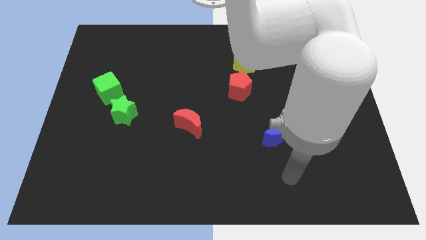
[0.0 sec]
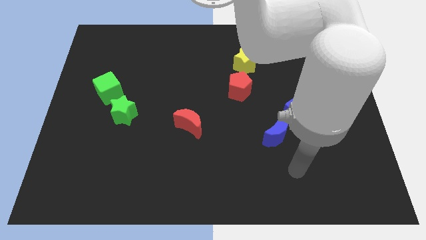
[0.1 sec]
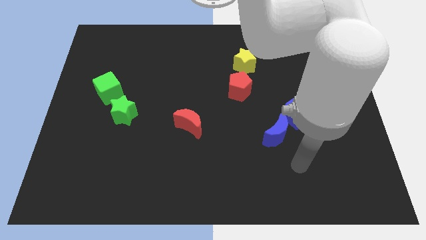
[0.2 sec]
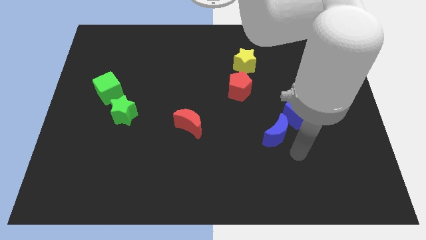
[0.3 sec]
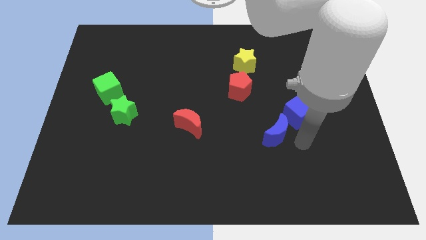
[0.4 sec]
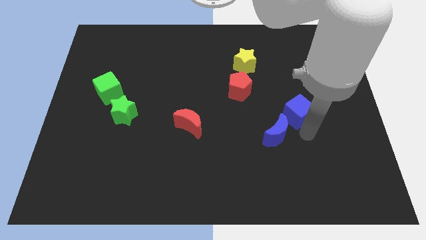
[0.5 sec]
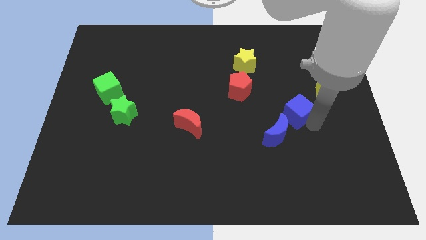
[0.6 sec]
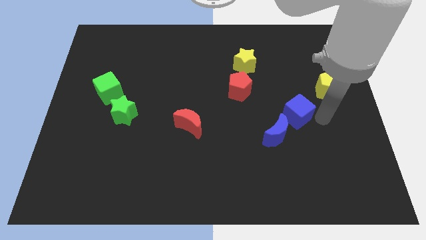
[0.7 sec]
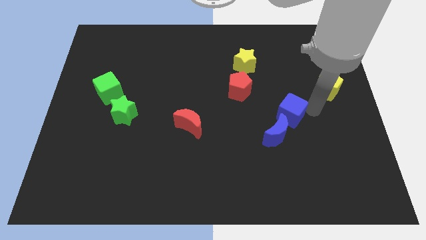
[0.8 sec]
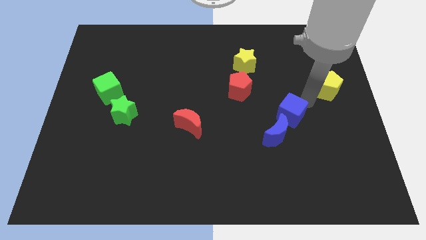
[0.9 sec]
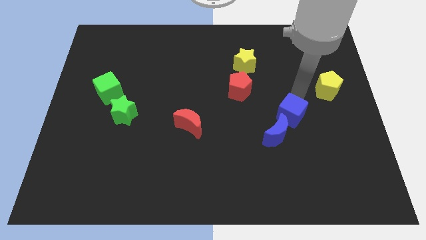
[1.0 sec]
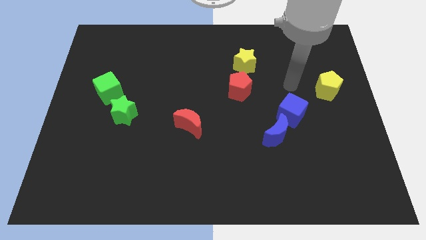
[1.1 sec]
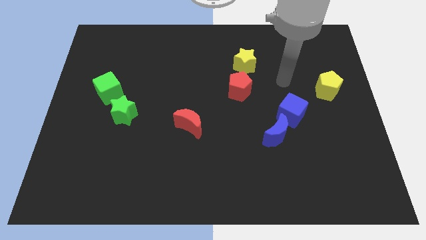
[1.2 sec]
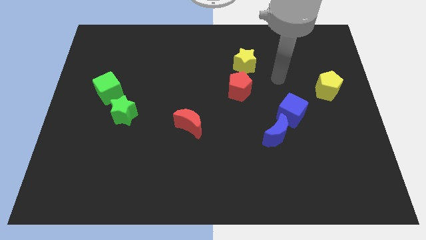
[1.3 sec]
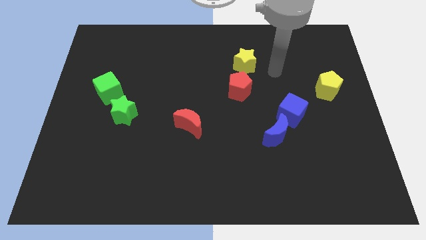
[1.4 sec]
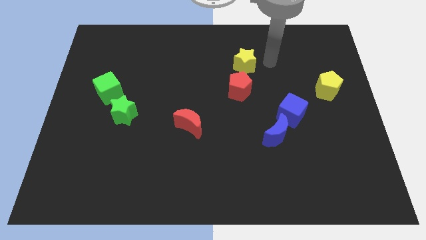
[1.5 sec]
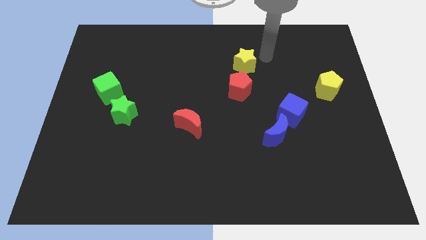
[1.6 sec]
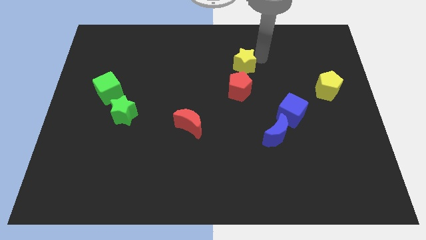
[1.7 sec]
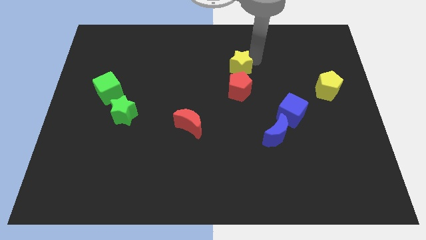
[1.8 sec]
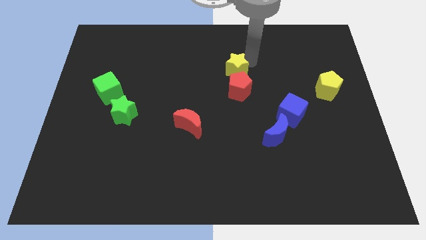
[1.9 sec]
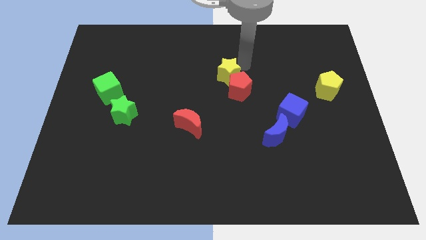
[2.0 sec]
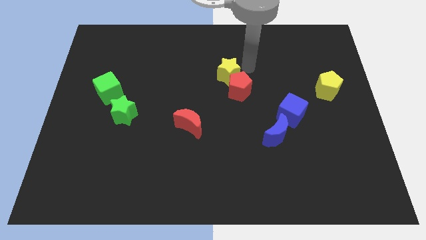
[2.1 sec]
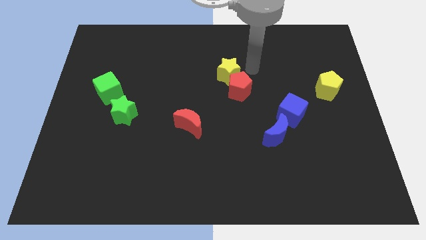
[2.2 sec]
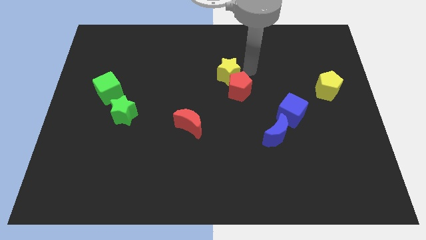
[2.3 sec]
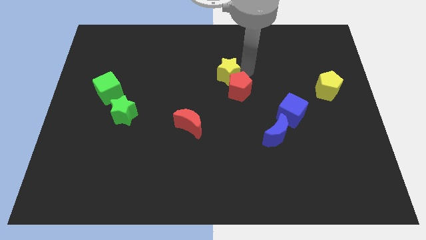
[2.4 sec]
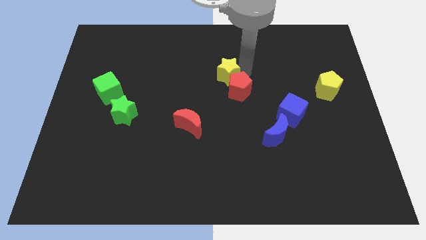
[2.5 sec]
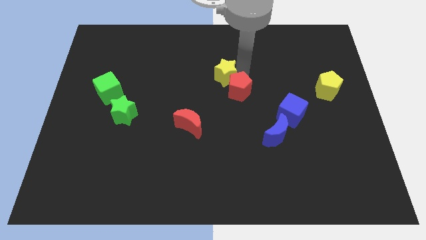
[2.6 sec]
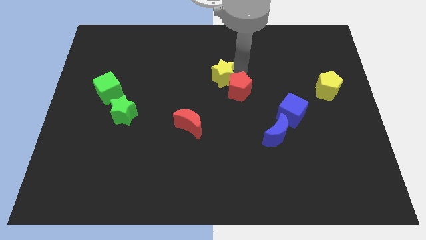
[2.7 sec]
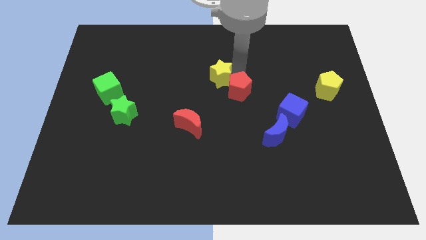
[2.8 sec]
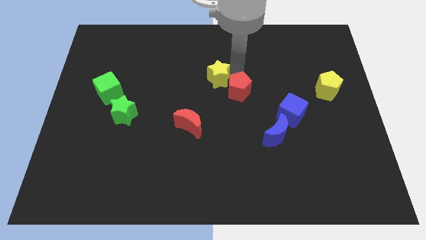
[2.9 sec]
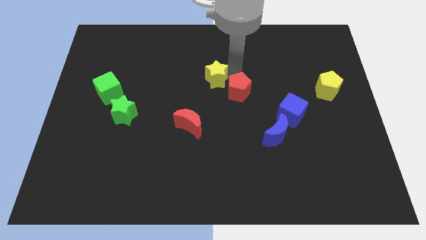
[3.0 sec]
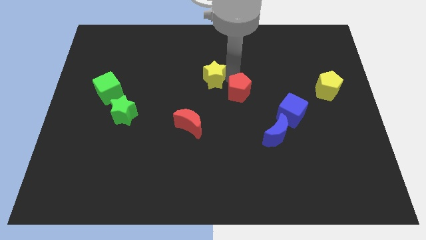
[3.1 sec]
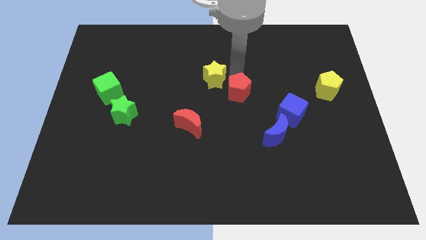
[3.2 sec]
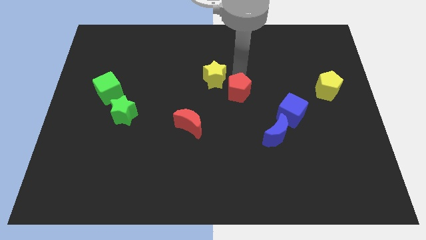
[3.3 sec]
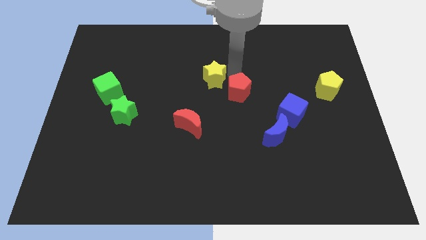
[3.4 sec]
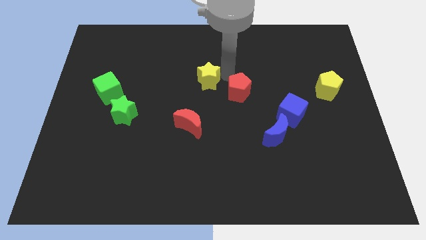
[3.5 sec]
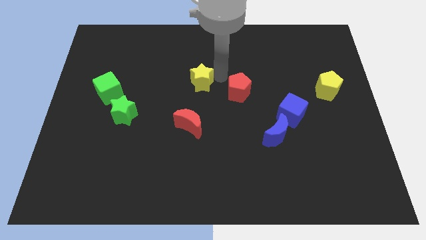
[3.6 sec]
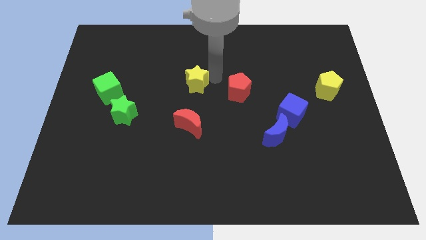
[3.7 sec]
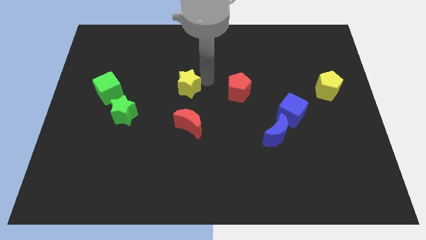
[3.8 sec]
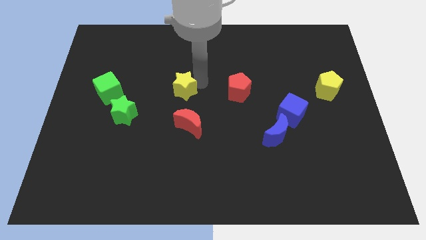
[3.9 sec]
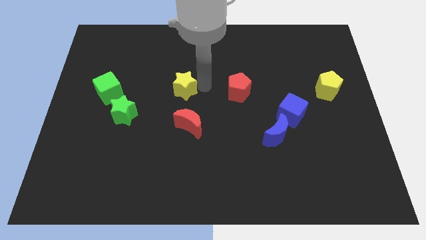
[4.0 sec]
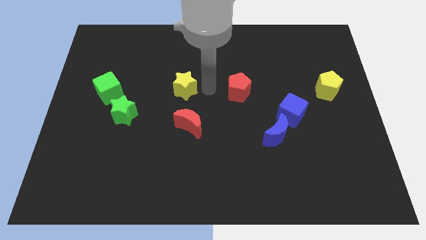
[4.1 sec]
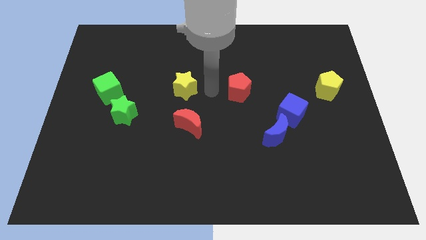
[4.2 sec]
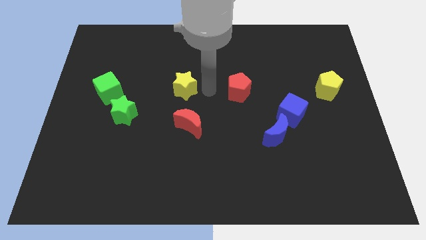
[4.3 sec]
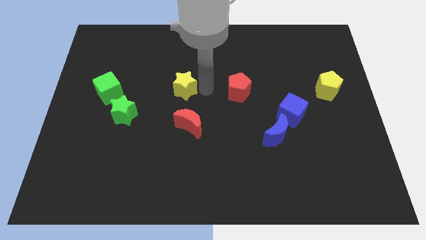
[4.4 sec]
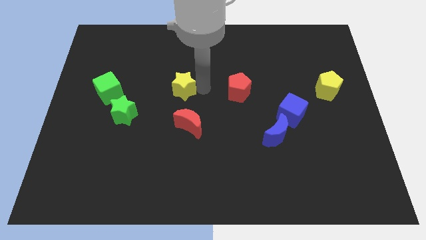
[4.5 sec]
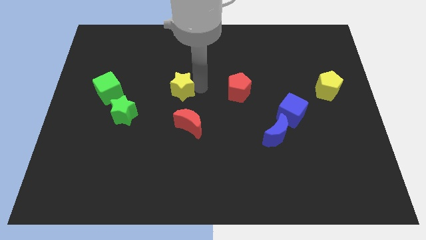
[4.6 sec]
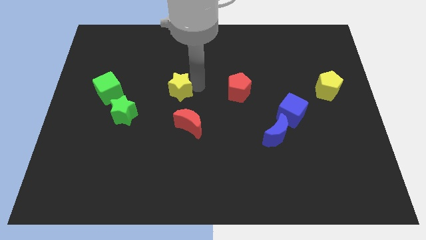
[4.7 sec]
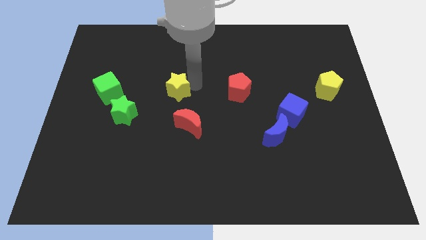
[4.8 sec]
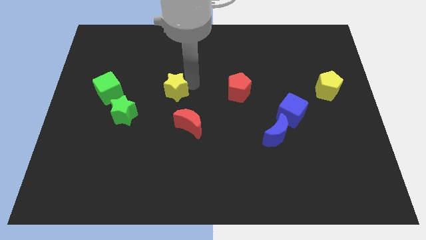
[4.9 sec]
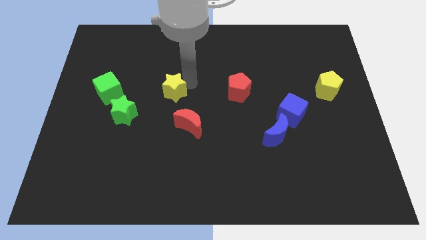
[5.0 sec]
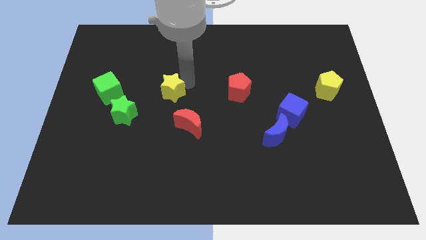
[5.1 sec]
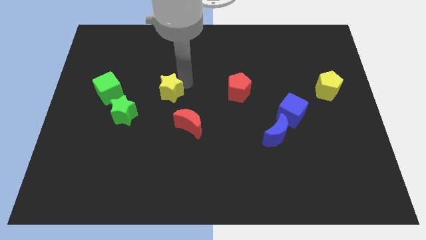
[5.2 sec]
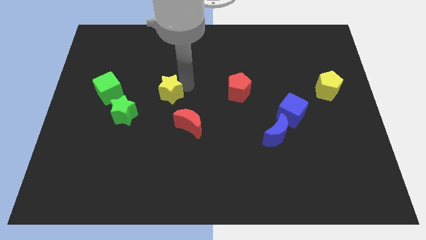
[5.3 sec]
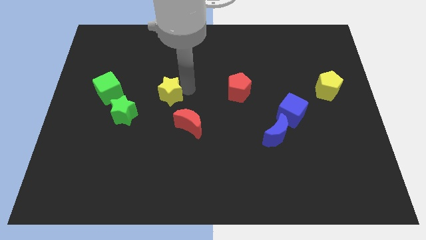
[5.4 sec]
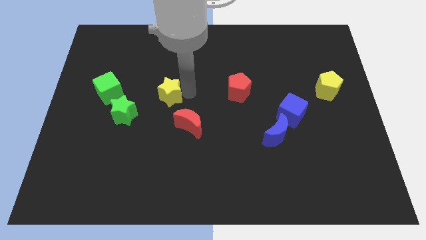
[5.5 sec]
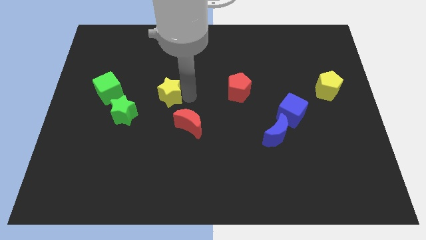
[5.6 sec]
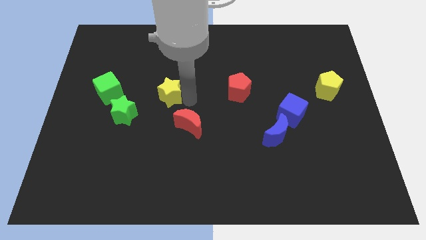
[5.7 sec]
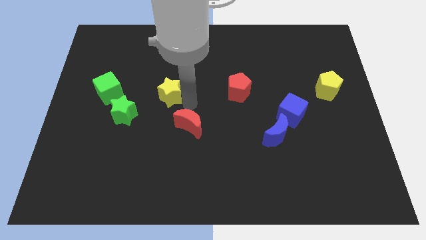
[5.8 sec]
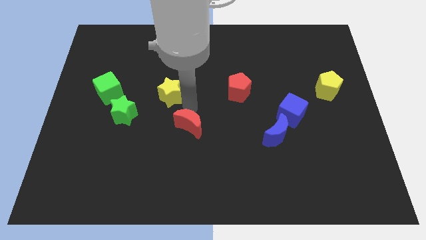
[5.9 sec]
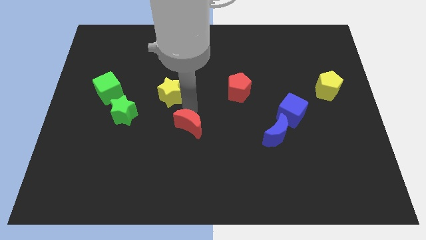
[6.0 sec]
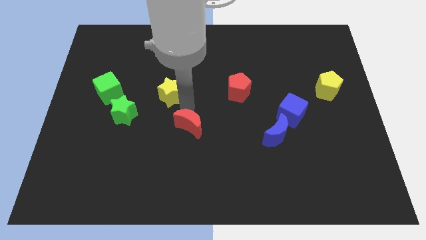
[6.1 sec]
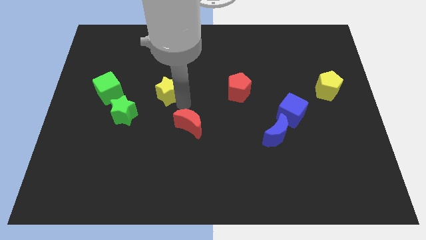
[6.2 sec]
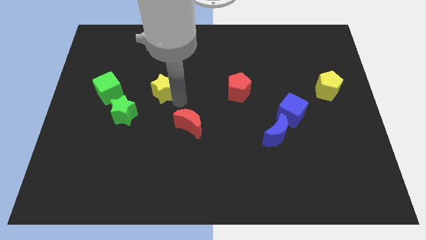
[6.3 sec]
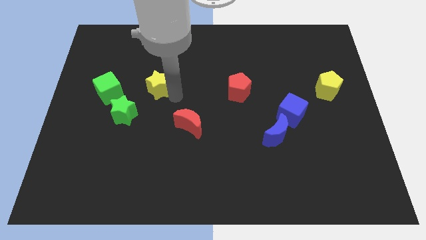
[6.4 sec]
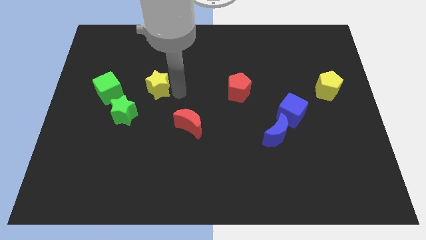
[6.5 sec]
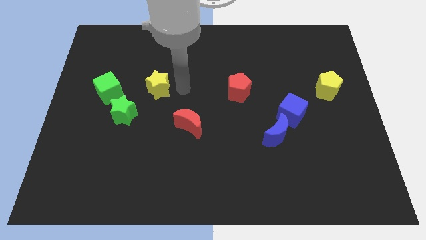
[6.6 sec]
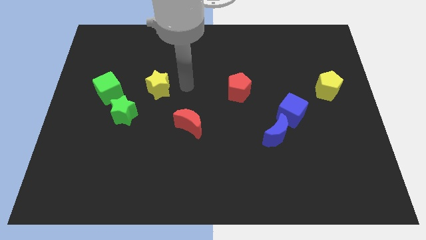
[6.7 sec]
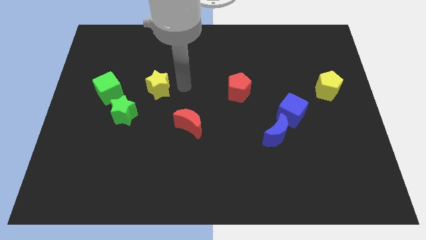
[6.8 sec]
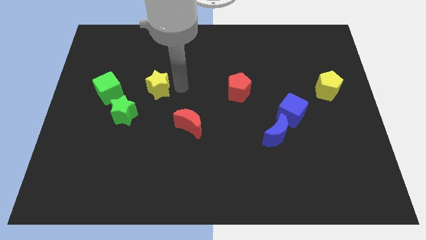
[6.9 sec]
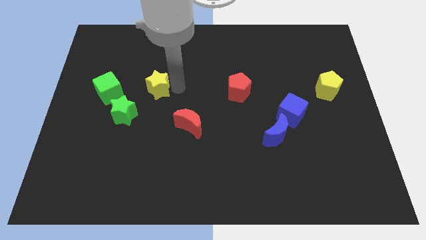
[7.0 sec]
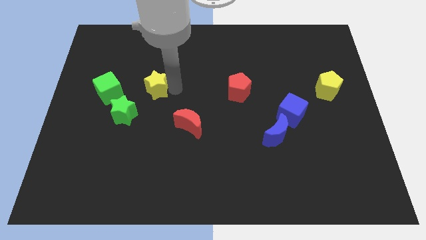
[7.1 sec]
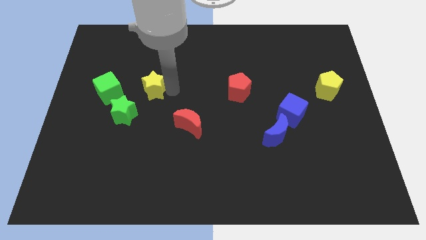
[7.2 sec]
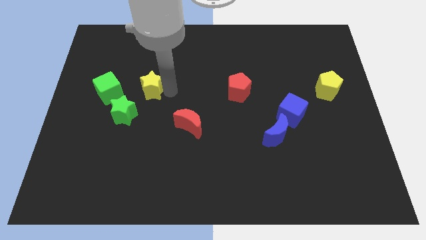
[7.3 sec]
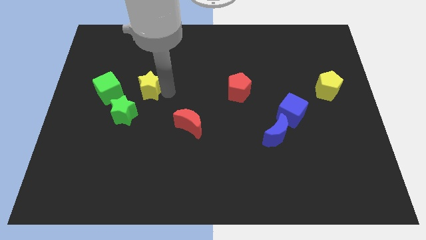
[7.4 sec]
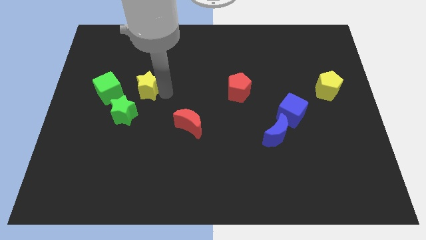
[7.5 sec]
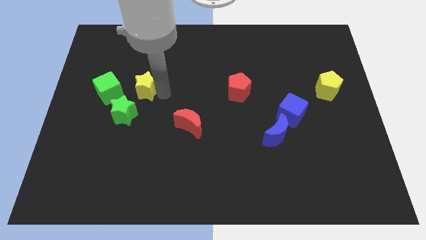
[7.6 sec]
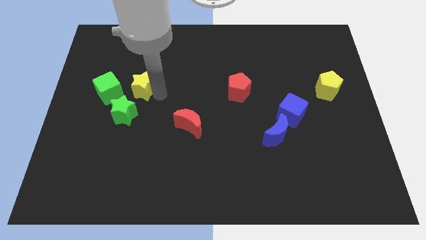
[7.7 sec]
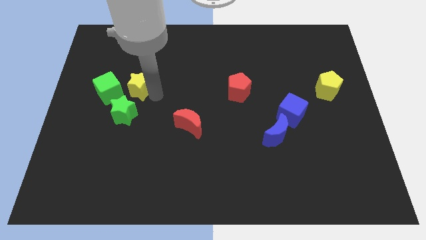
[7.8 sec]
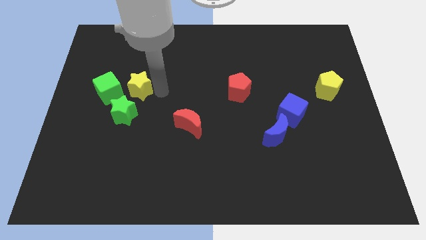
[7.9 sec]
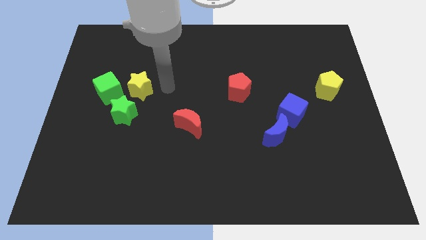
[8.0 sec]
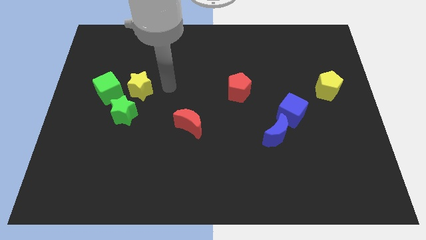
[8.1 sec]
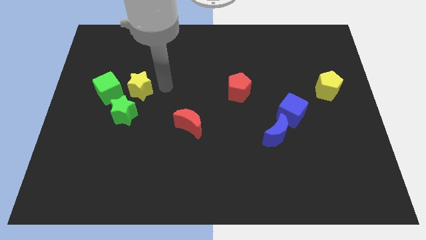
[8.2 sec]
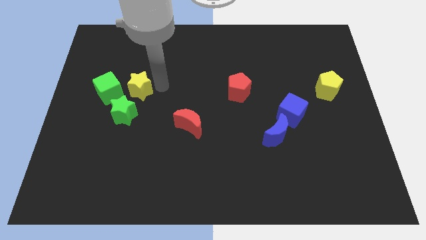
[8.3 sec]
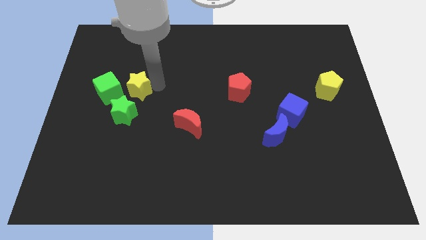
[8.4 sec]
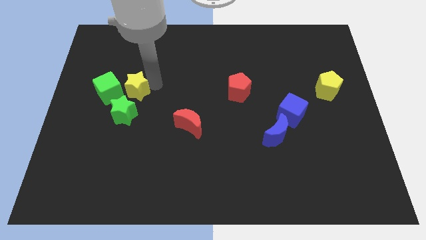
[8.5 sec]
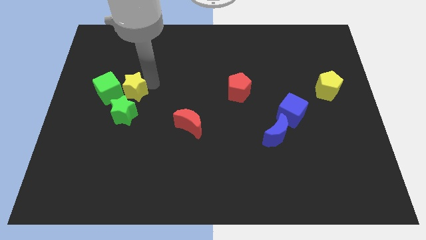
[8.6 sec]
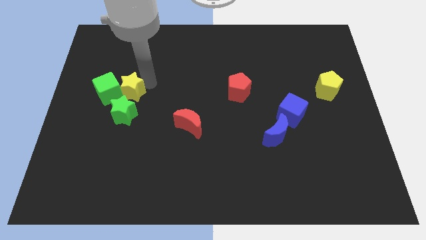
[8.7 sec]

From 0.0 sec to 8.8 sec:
put the yellow star close to the green cube
